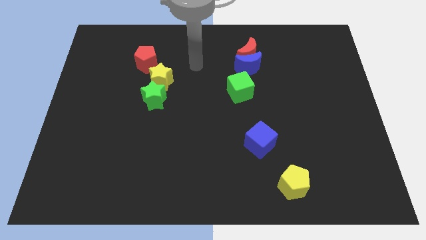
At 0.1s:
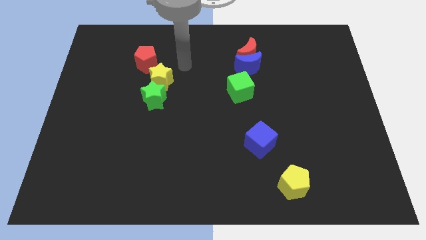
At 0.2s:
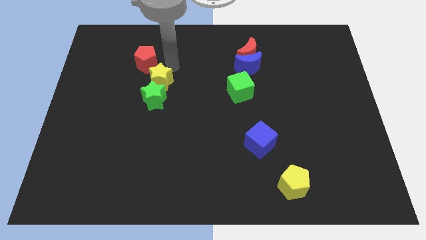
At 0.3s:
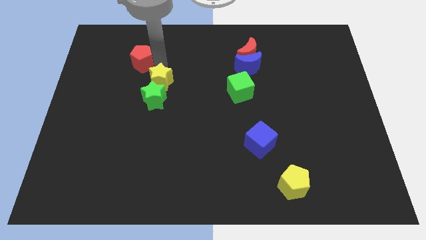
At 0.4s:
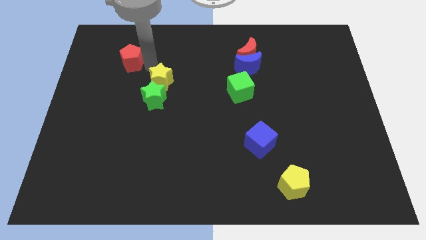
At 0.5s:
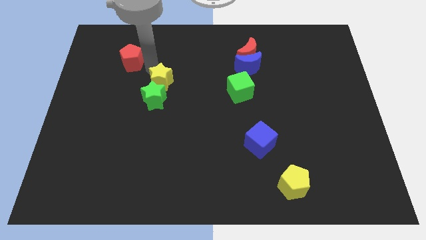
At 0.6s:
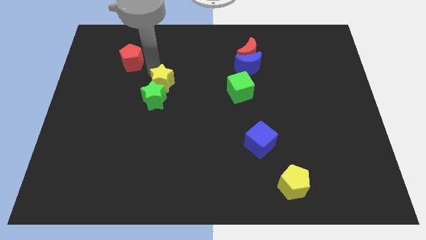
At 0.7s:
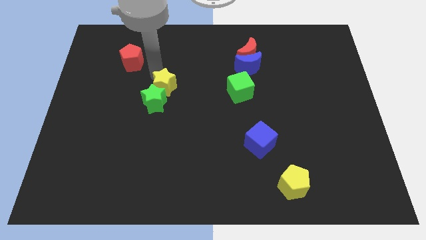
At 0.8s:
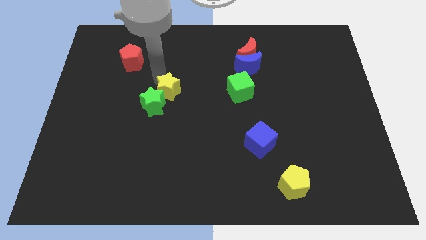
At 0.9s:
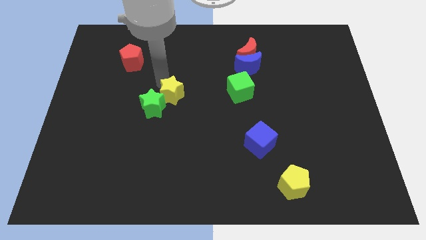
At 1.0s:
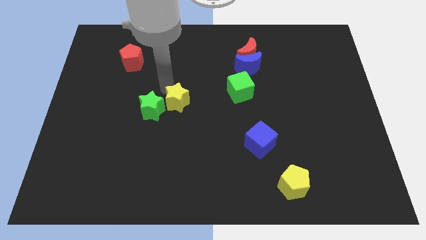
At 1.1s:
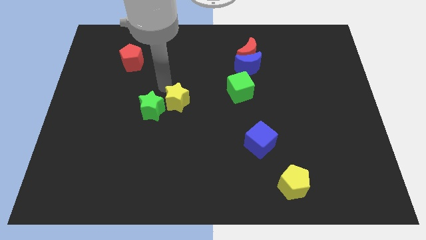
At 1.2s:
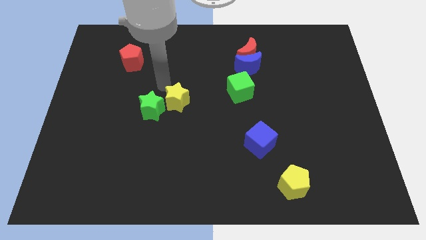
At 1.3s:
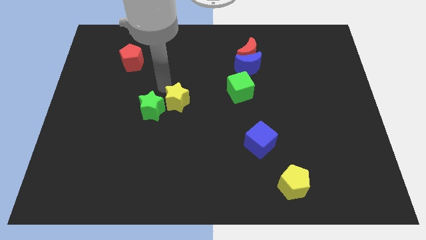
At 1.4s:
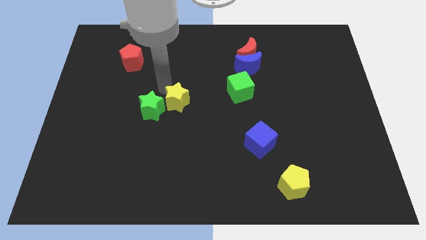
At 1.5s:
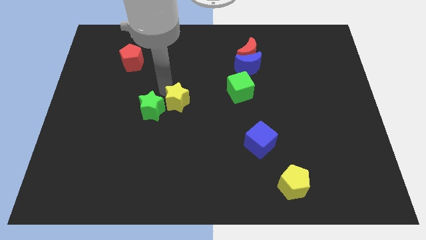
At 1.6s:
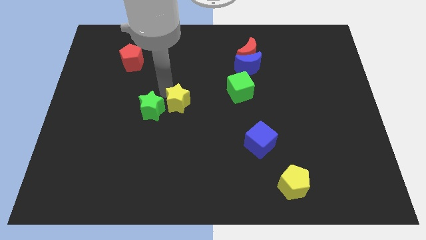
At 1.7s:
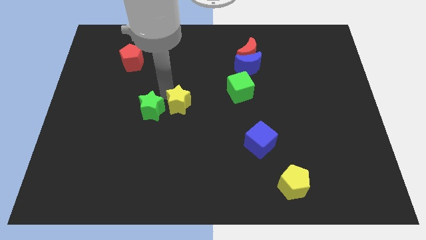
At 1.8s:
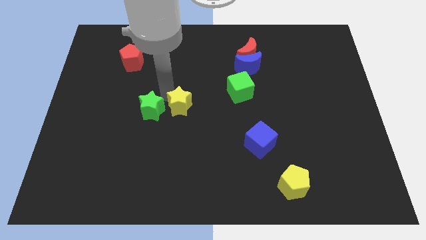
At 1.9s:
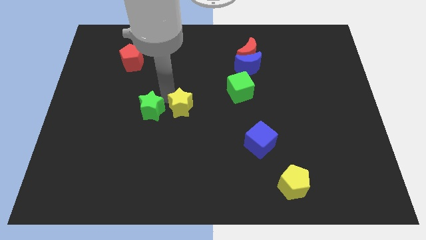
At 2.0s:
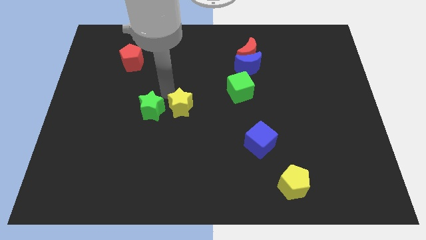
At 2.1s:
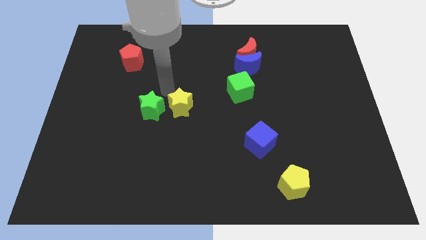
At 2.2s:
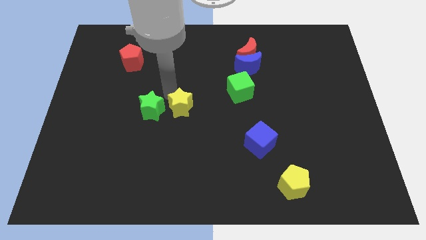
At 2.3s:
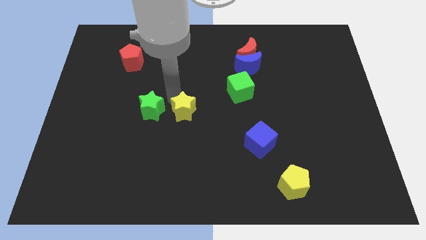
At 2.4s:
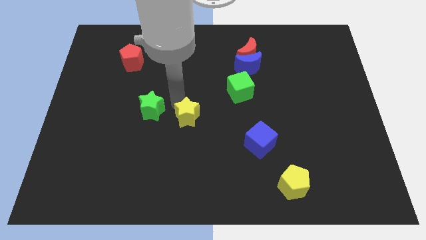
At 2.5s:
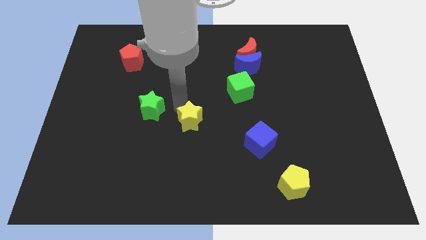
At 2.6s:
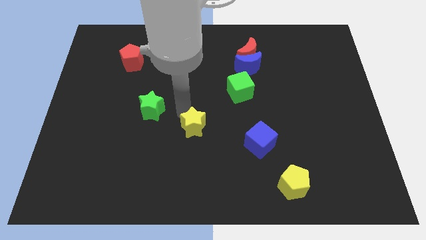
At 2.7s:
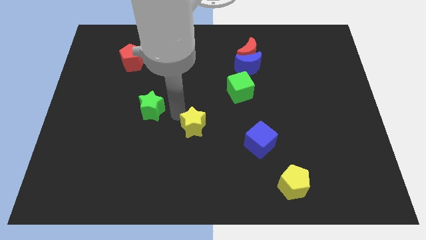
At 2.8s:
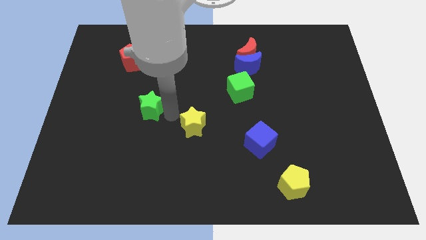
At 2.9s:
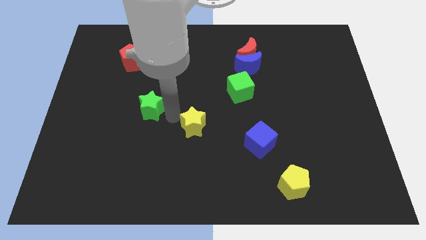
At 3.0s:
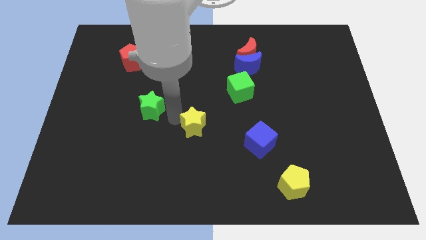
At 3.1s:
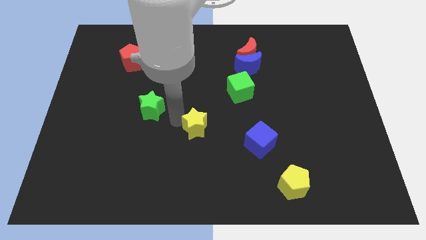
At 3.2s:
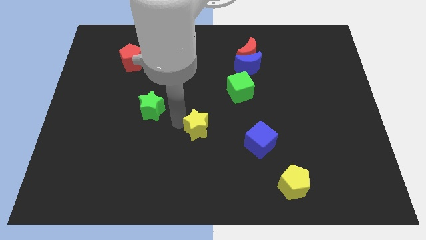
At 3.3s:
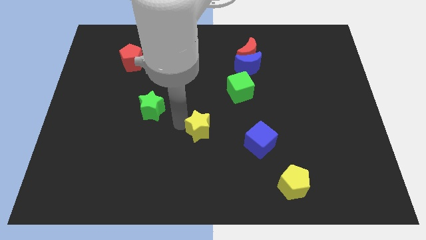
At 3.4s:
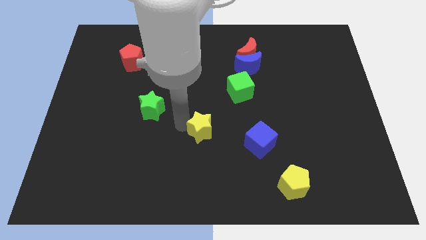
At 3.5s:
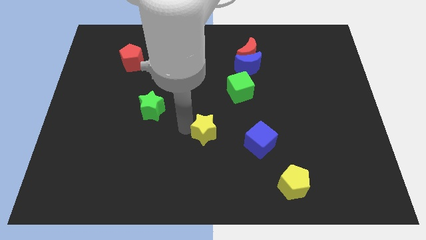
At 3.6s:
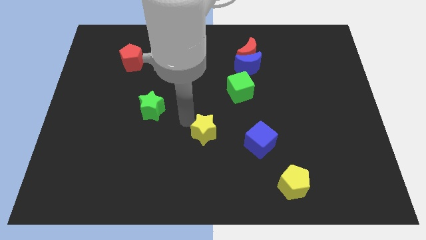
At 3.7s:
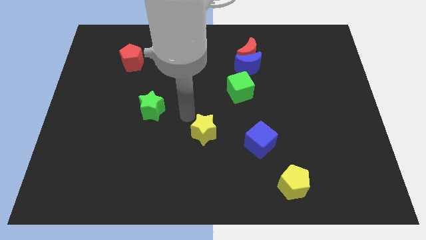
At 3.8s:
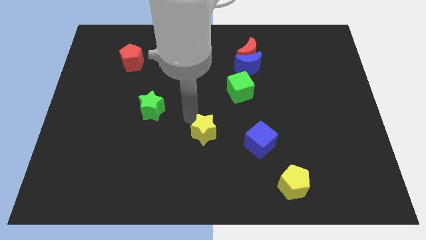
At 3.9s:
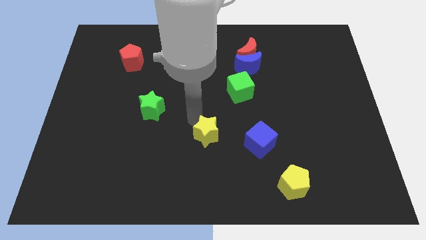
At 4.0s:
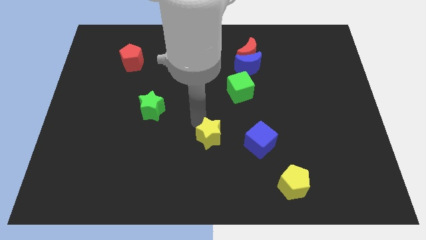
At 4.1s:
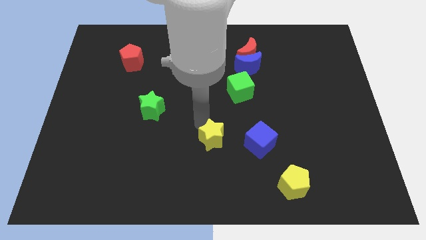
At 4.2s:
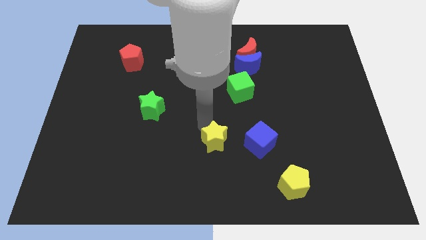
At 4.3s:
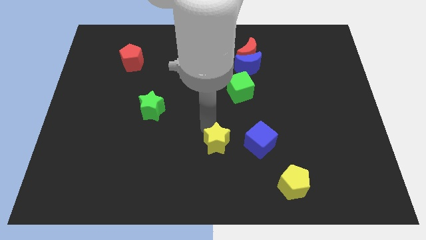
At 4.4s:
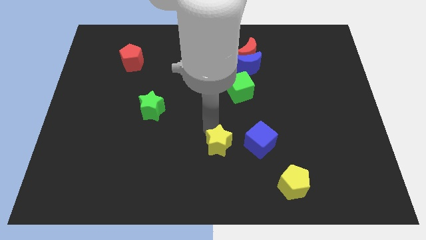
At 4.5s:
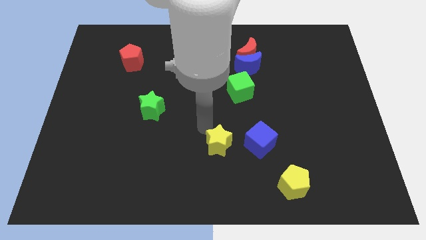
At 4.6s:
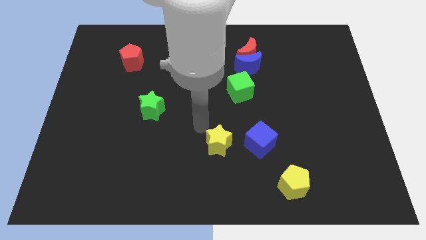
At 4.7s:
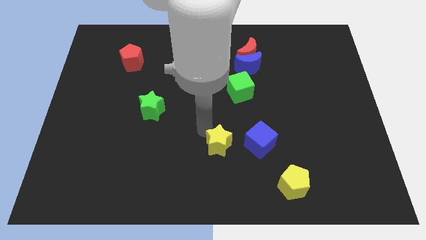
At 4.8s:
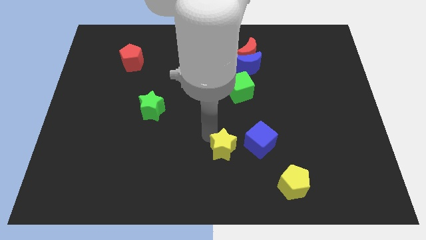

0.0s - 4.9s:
slide the yellow star to the bottom left side of the blue cube

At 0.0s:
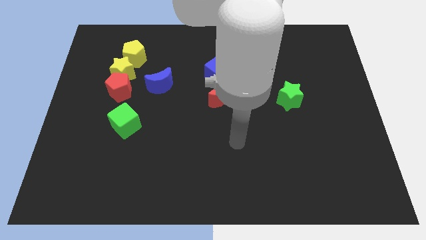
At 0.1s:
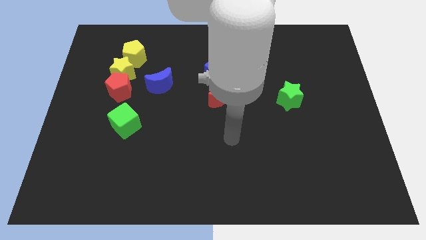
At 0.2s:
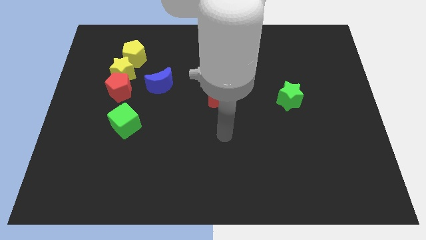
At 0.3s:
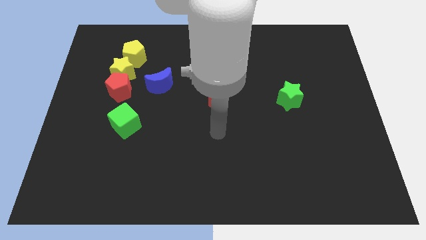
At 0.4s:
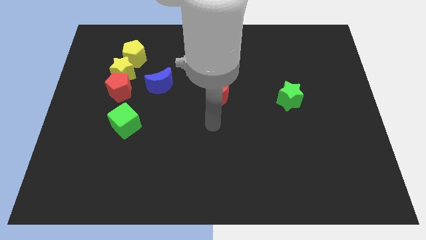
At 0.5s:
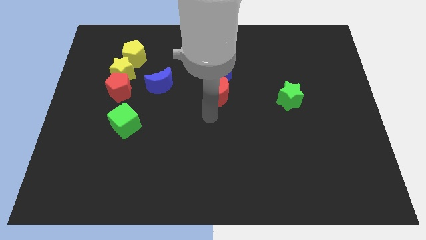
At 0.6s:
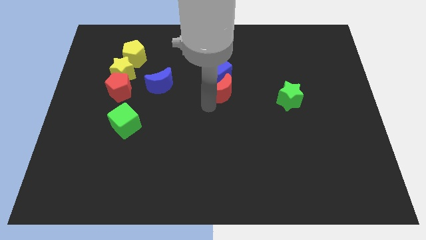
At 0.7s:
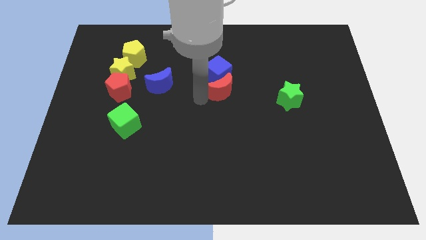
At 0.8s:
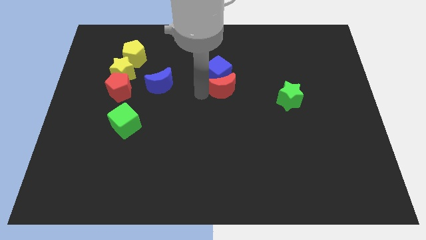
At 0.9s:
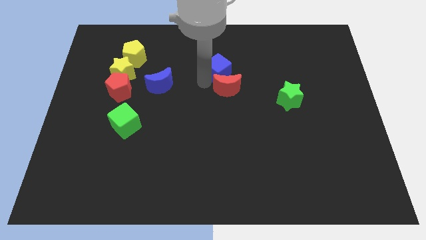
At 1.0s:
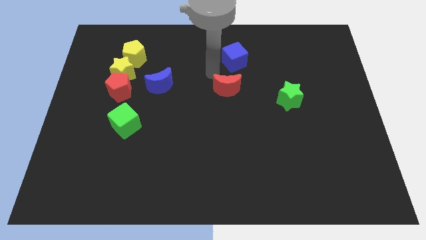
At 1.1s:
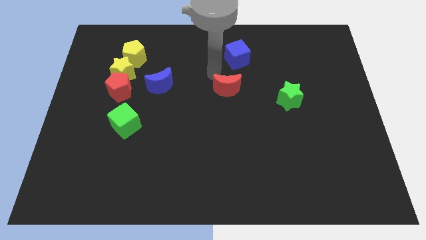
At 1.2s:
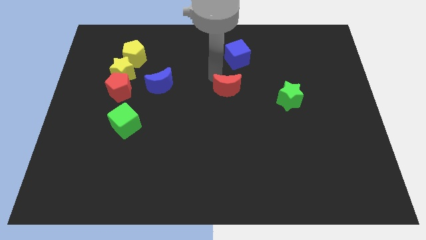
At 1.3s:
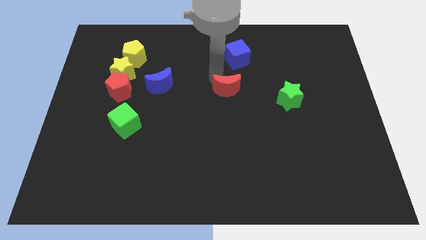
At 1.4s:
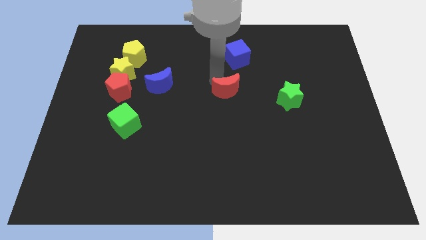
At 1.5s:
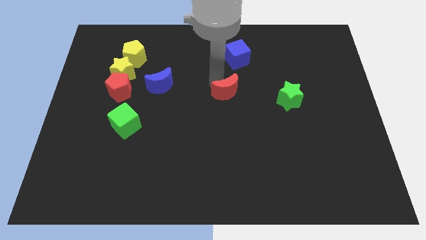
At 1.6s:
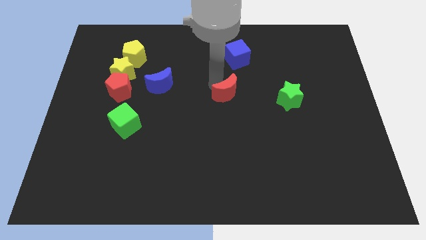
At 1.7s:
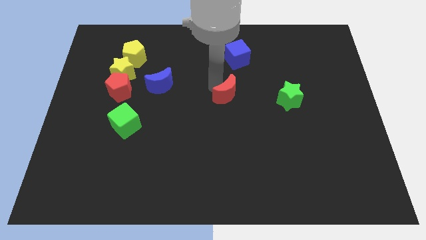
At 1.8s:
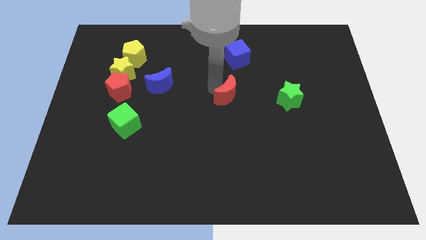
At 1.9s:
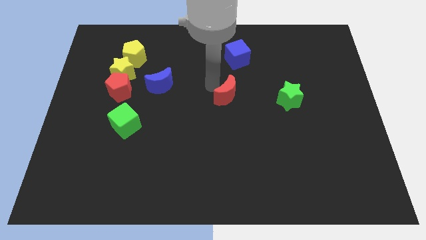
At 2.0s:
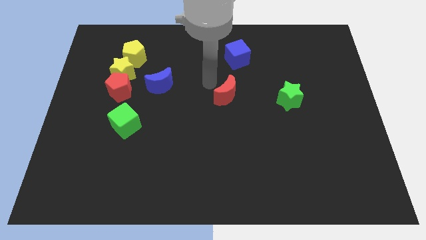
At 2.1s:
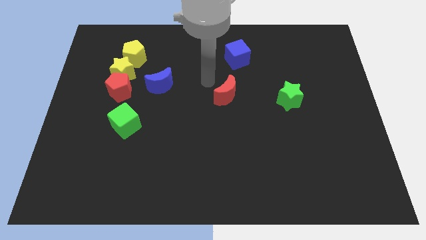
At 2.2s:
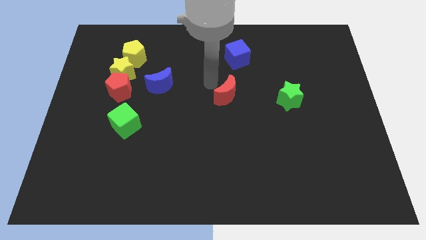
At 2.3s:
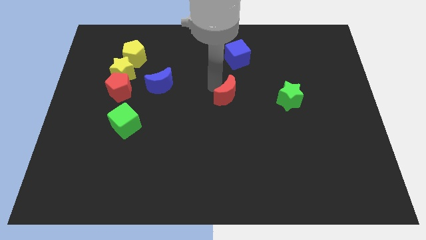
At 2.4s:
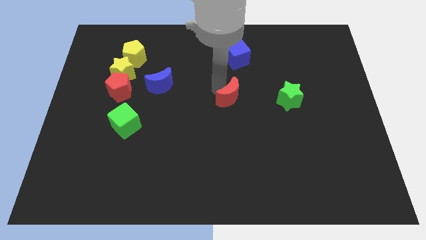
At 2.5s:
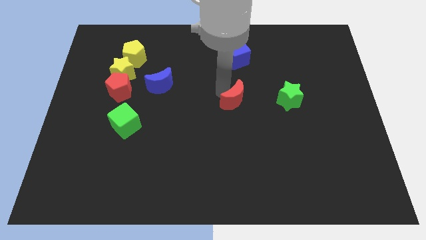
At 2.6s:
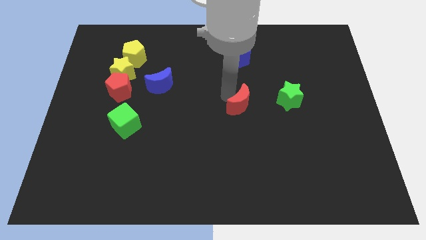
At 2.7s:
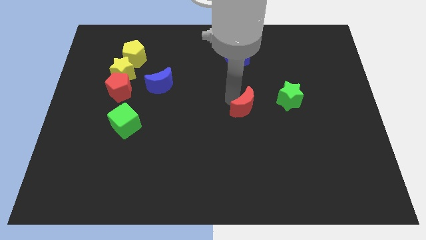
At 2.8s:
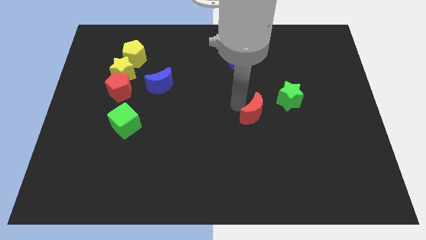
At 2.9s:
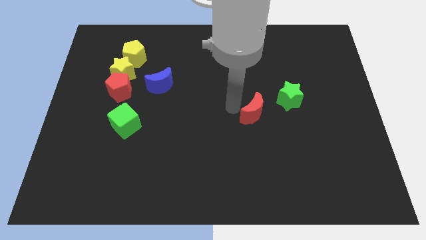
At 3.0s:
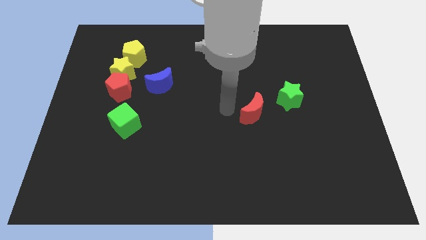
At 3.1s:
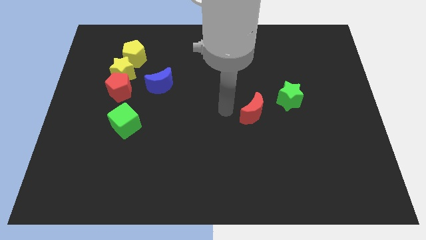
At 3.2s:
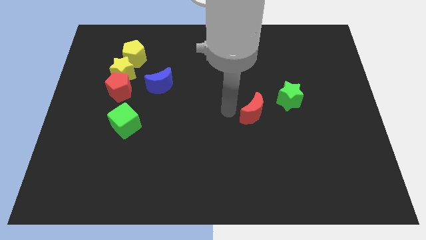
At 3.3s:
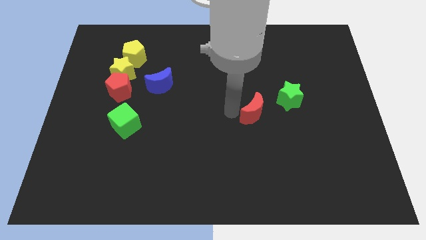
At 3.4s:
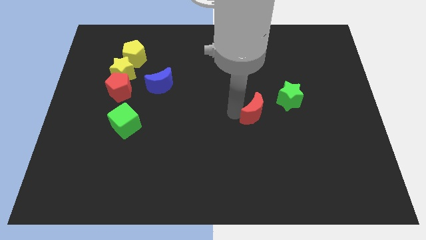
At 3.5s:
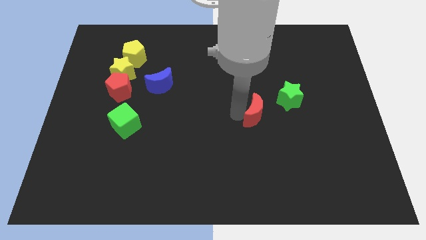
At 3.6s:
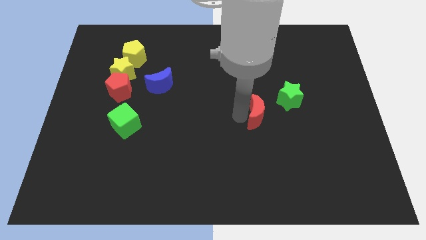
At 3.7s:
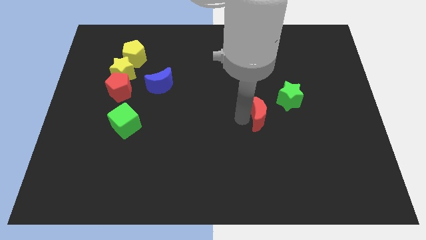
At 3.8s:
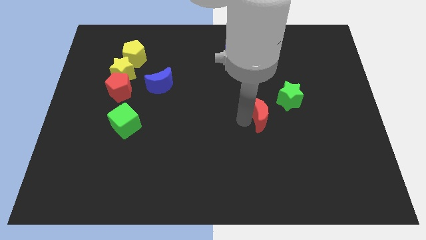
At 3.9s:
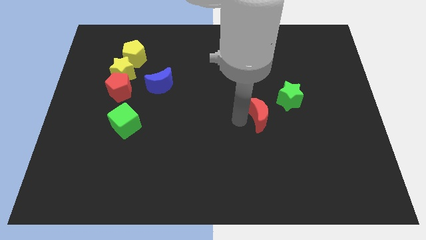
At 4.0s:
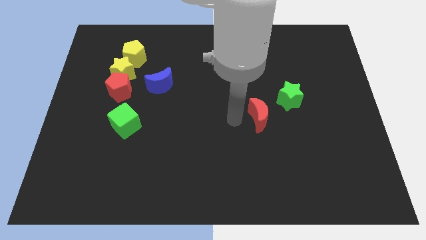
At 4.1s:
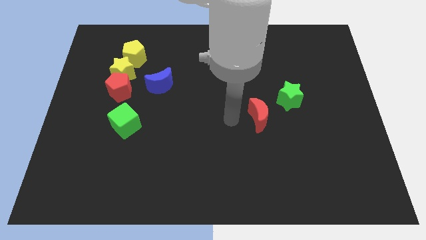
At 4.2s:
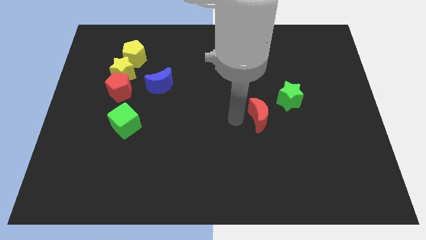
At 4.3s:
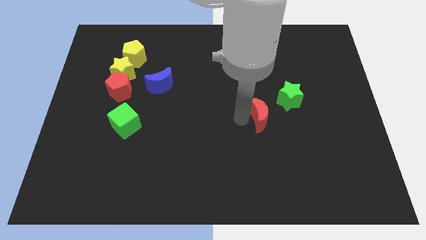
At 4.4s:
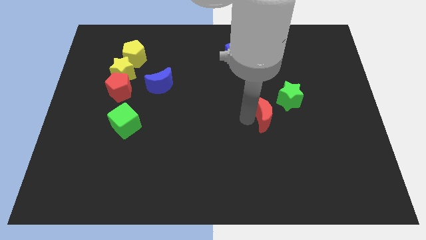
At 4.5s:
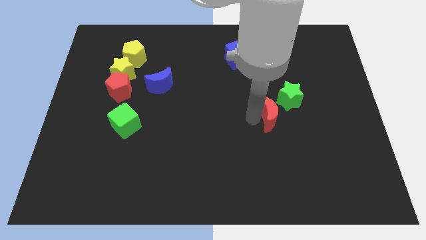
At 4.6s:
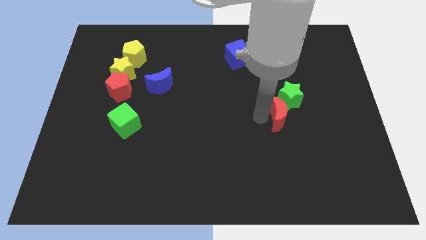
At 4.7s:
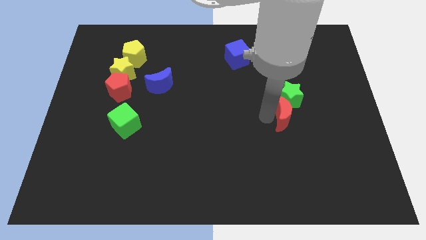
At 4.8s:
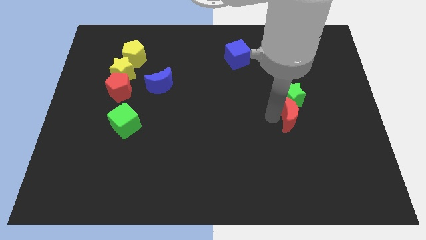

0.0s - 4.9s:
put the red moon diagonally down and to the right of the green star
